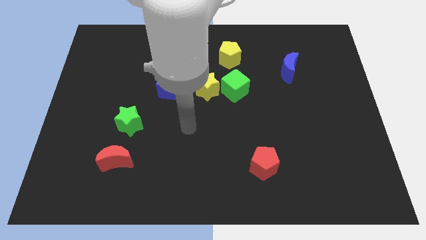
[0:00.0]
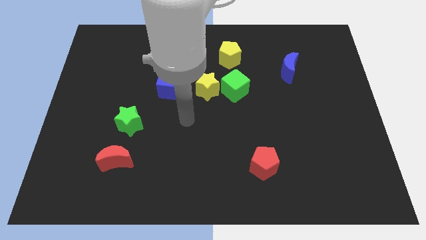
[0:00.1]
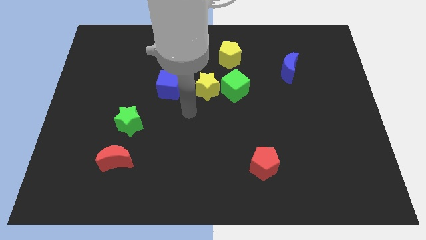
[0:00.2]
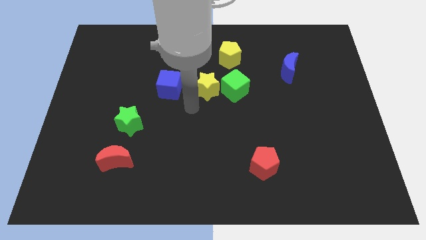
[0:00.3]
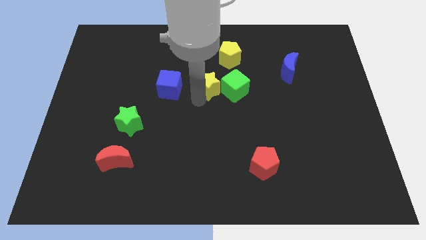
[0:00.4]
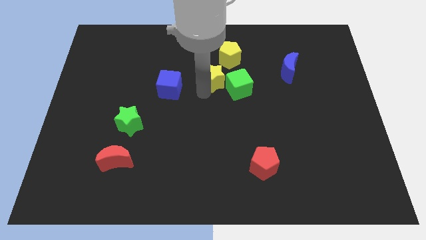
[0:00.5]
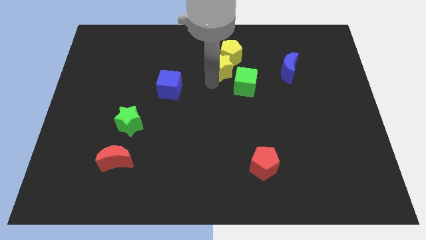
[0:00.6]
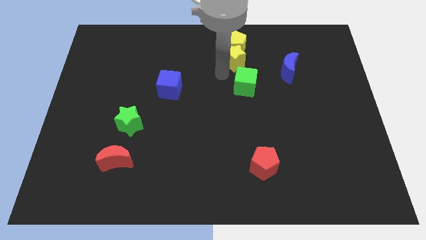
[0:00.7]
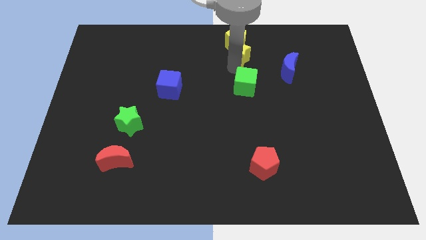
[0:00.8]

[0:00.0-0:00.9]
move the green cube away from the yellow star

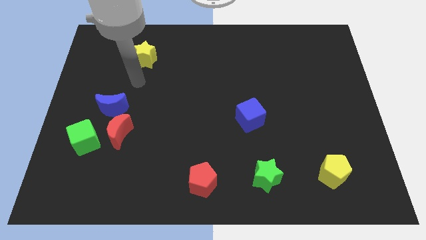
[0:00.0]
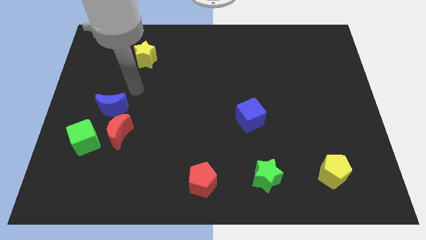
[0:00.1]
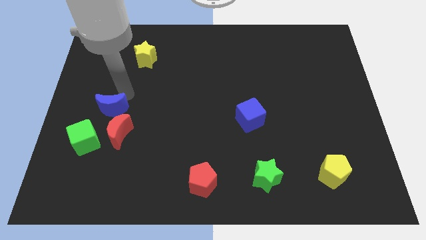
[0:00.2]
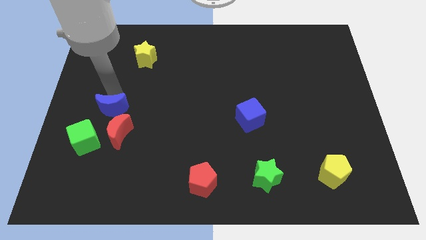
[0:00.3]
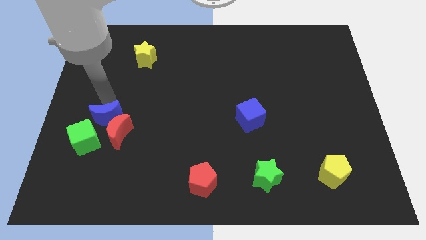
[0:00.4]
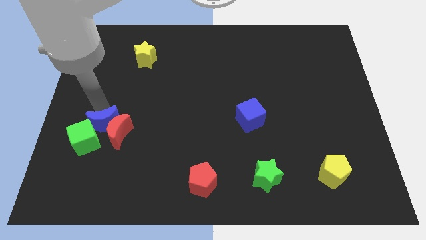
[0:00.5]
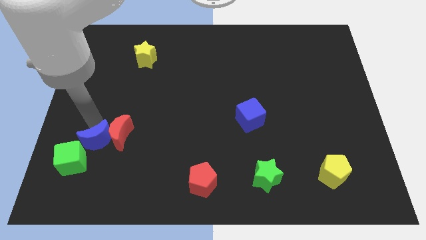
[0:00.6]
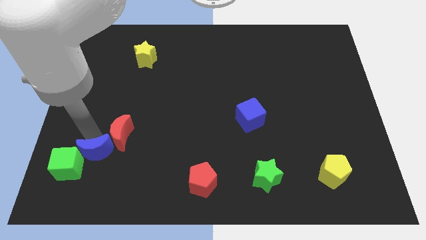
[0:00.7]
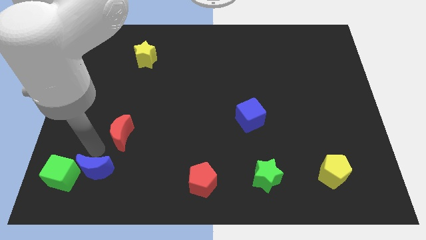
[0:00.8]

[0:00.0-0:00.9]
pull the red moon apart from the green cube and blue moon

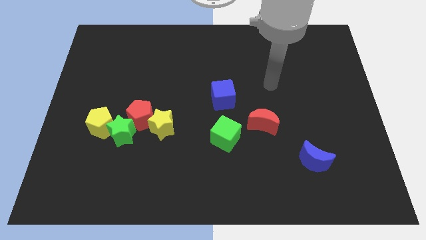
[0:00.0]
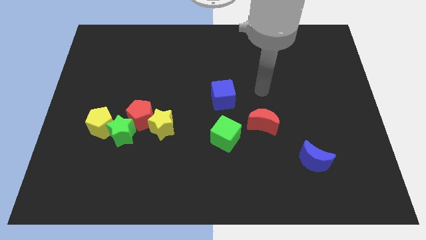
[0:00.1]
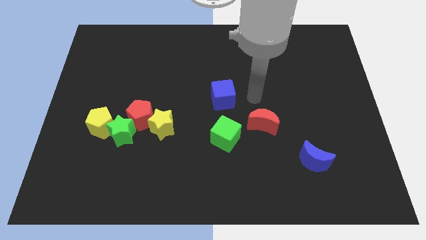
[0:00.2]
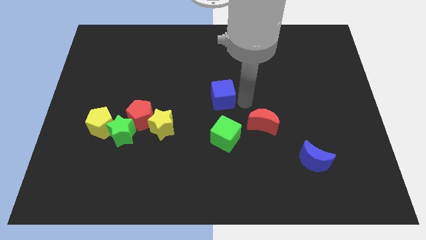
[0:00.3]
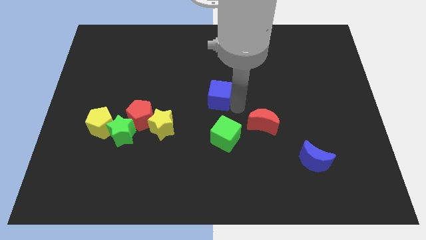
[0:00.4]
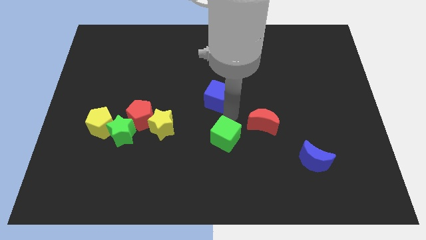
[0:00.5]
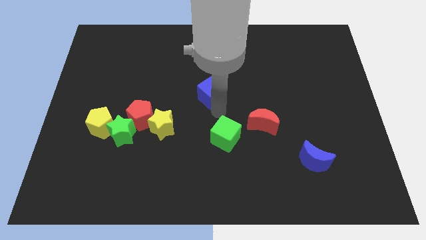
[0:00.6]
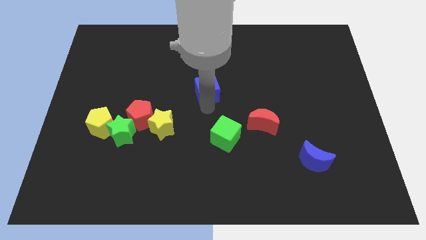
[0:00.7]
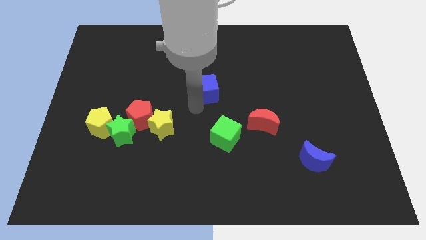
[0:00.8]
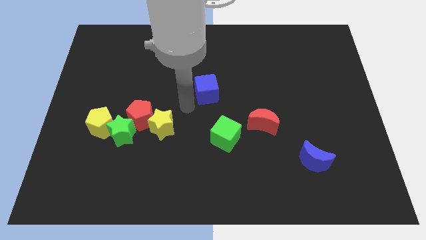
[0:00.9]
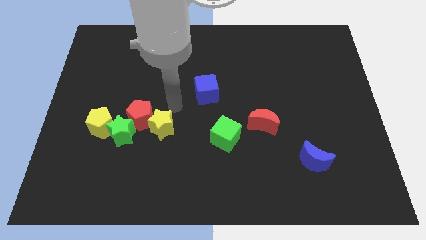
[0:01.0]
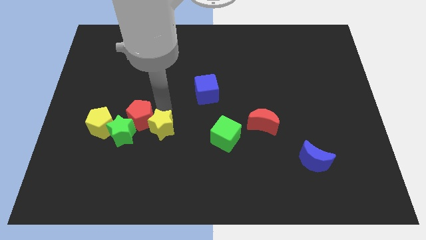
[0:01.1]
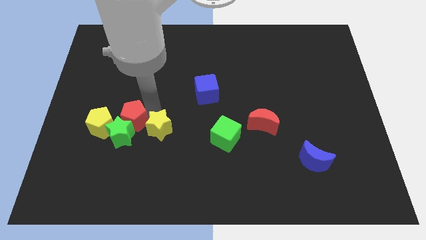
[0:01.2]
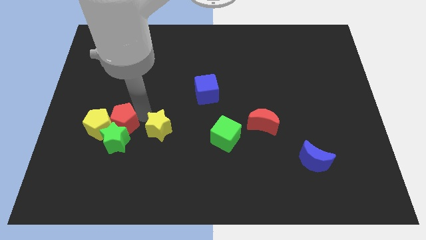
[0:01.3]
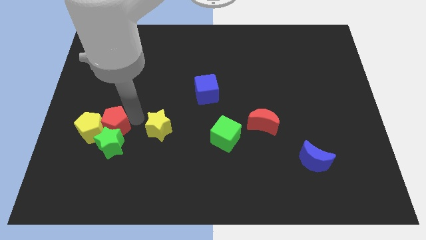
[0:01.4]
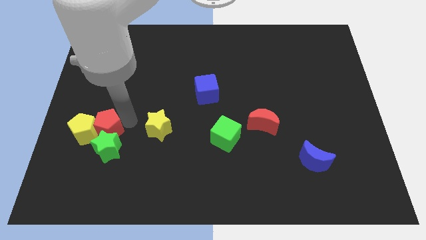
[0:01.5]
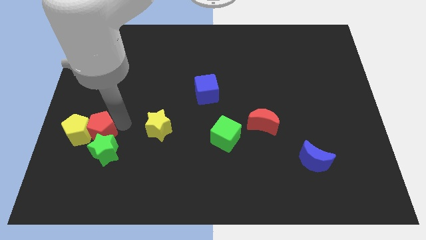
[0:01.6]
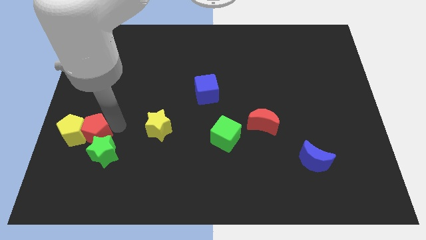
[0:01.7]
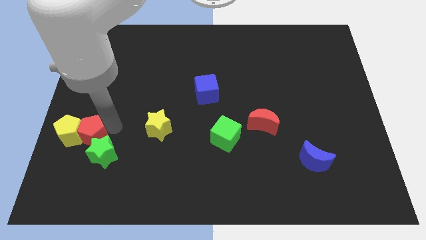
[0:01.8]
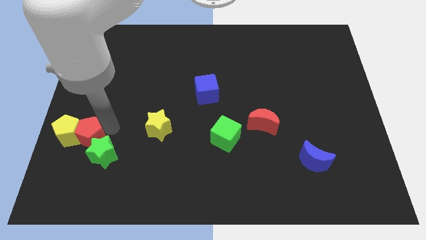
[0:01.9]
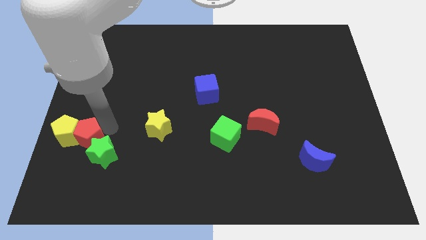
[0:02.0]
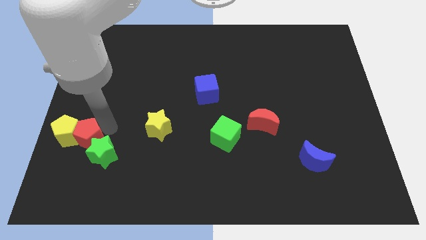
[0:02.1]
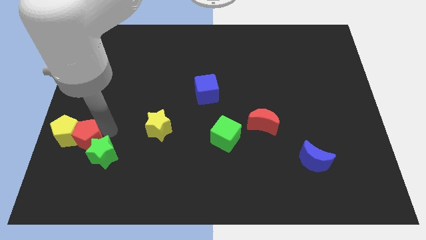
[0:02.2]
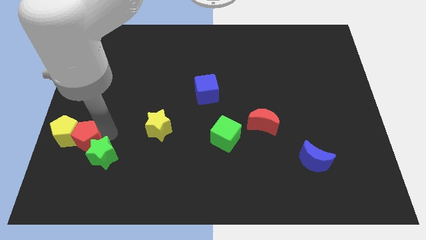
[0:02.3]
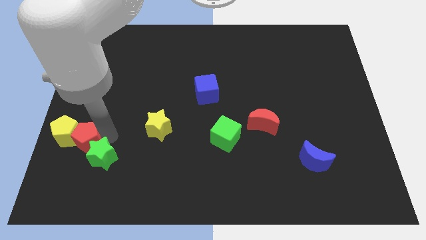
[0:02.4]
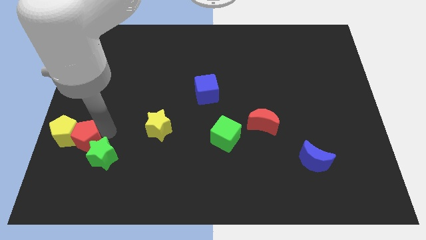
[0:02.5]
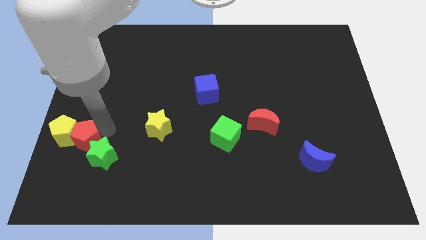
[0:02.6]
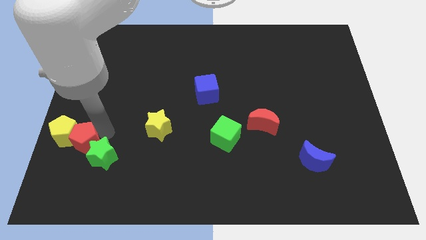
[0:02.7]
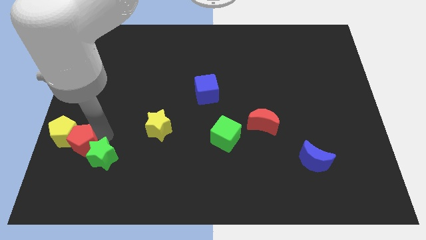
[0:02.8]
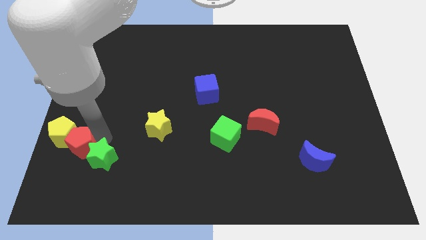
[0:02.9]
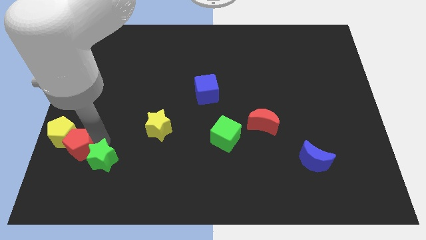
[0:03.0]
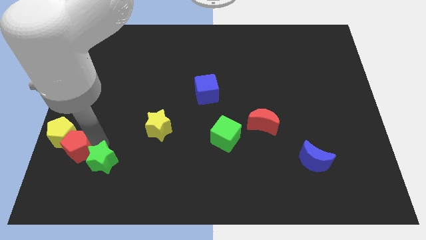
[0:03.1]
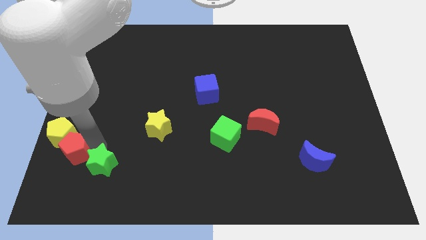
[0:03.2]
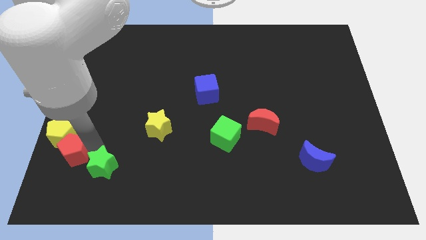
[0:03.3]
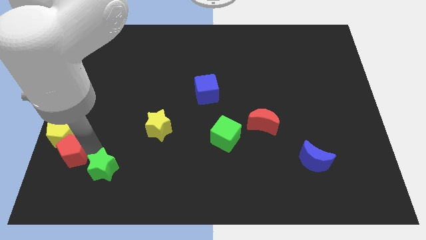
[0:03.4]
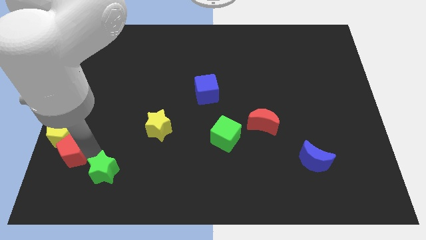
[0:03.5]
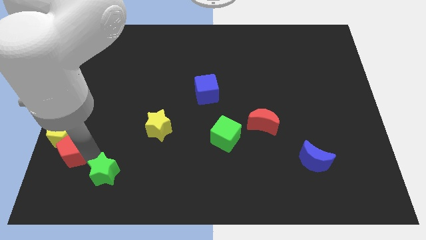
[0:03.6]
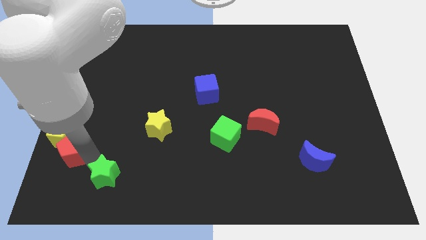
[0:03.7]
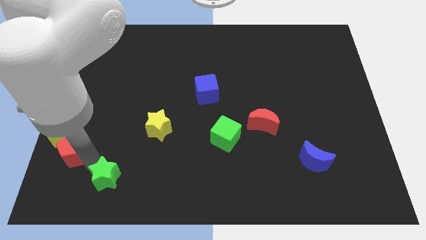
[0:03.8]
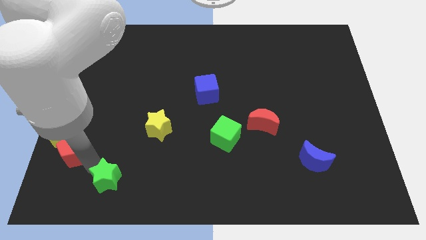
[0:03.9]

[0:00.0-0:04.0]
move the green star away from the group

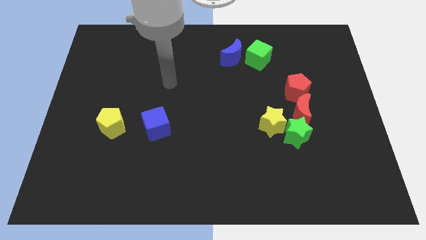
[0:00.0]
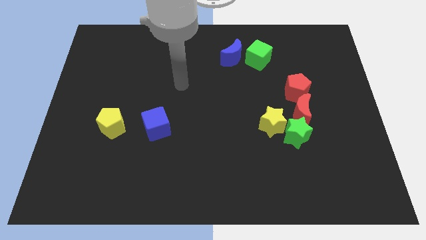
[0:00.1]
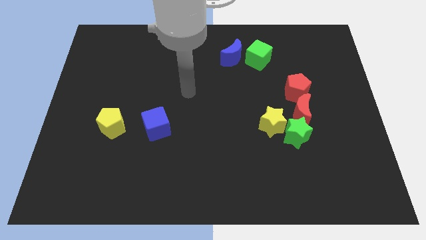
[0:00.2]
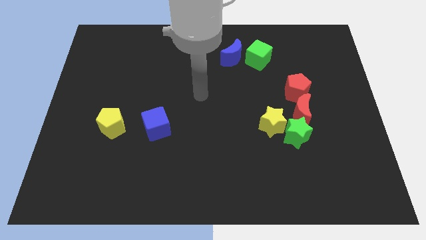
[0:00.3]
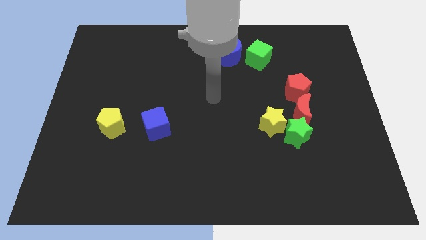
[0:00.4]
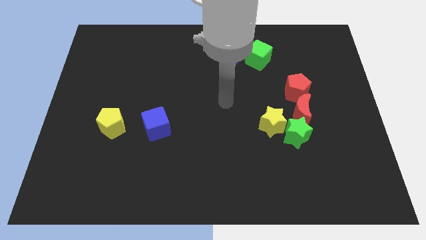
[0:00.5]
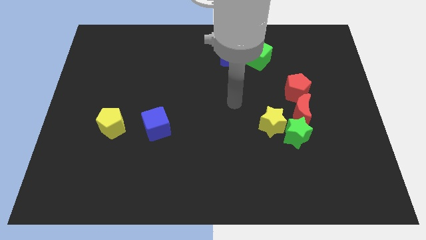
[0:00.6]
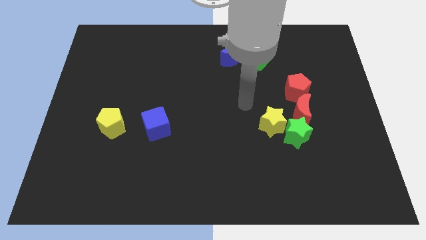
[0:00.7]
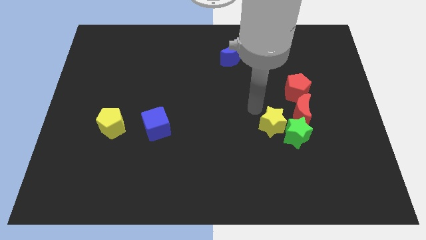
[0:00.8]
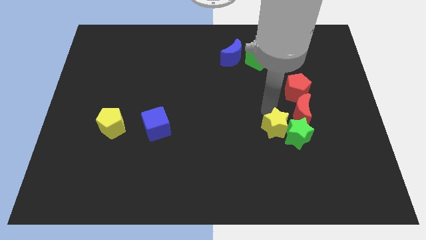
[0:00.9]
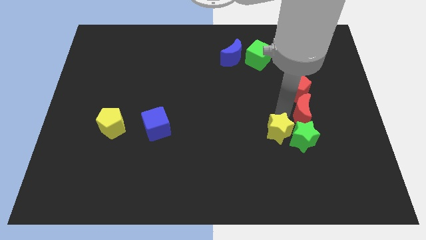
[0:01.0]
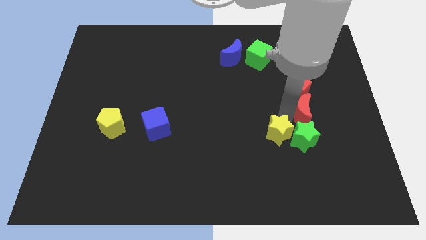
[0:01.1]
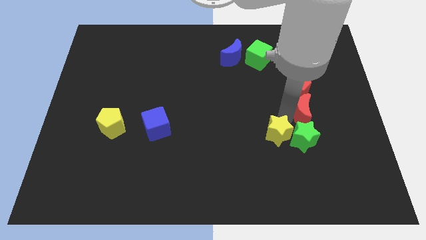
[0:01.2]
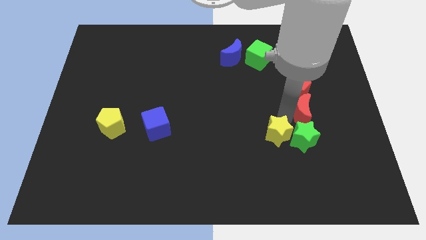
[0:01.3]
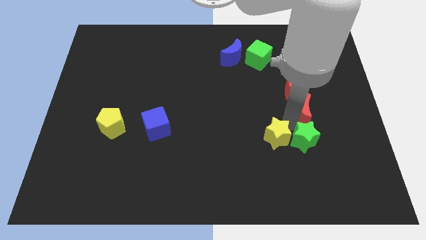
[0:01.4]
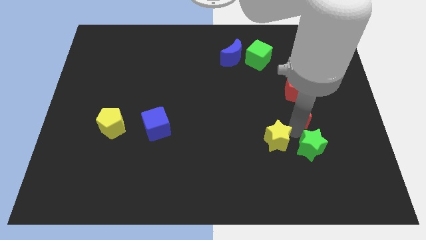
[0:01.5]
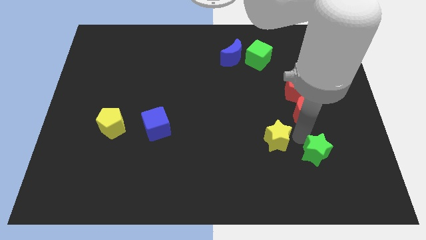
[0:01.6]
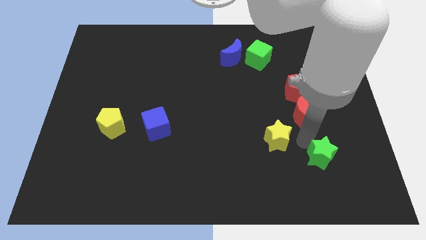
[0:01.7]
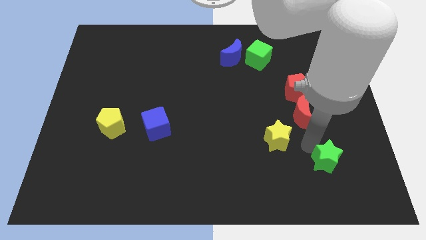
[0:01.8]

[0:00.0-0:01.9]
pull the green star apart from the yellow star and red moon

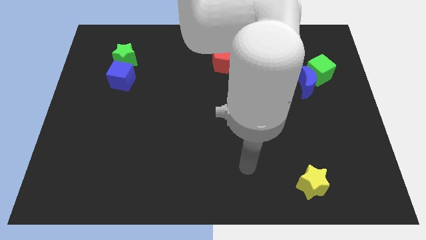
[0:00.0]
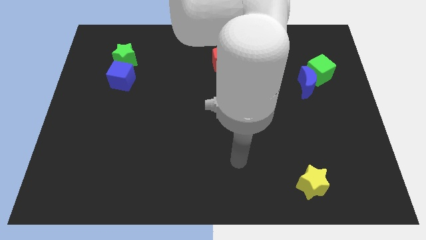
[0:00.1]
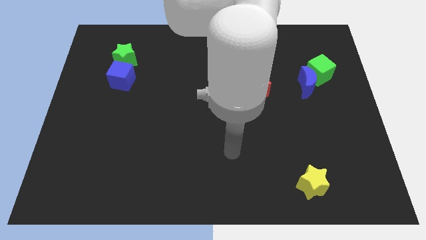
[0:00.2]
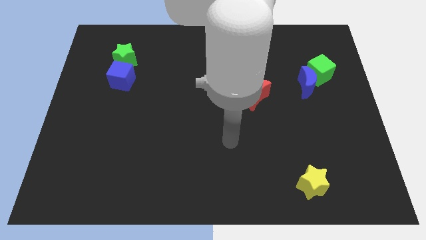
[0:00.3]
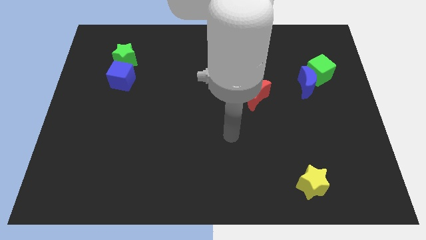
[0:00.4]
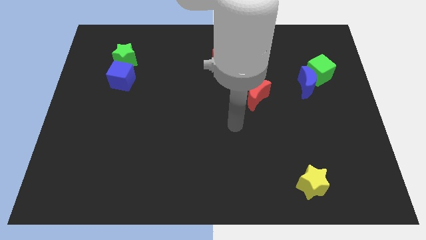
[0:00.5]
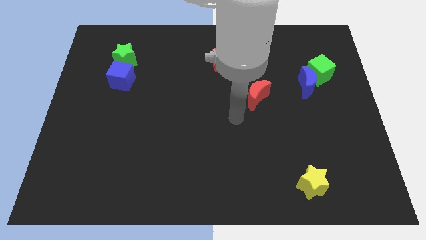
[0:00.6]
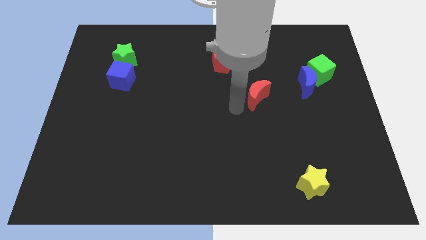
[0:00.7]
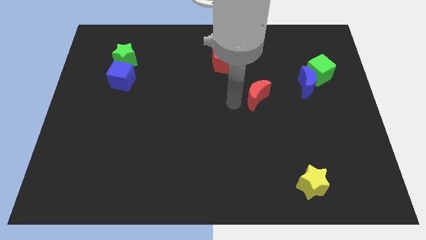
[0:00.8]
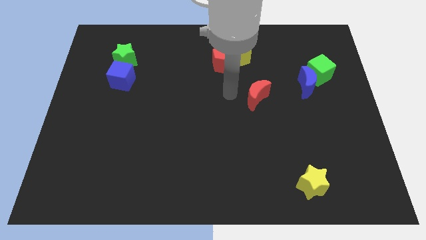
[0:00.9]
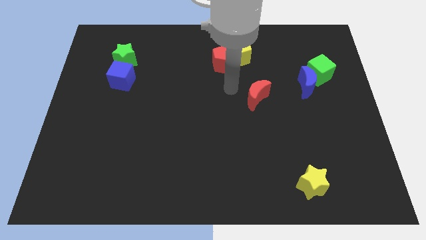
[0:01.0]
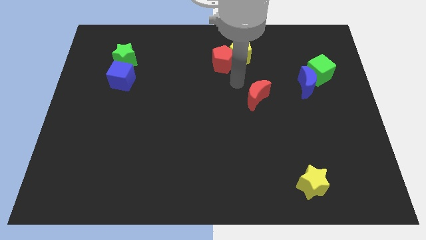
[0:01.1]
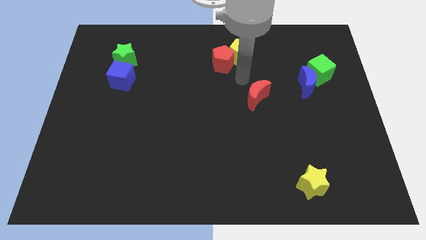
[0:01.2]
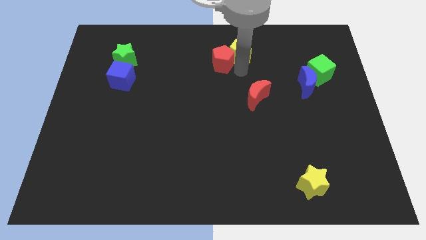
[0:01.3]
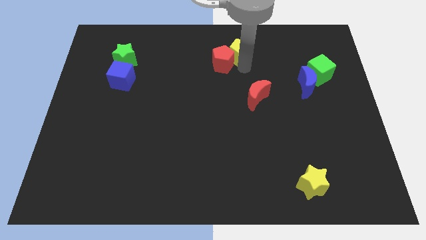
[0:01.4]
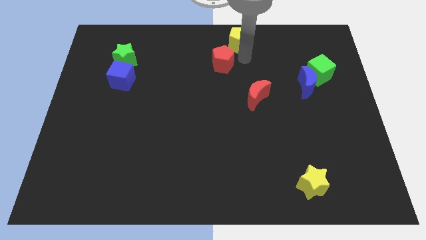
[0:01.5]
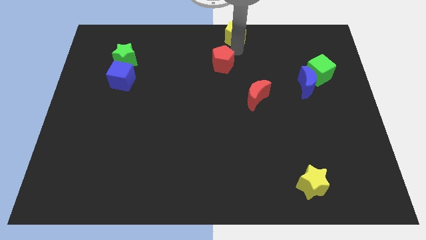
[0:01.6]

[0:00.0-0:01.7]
pull the red pentagon apart from the yellow pentagon
